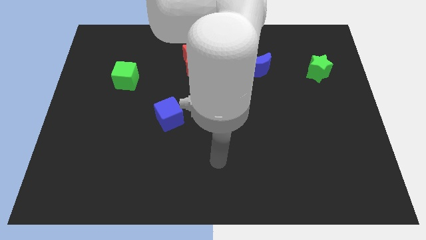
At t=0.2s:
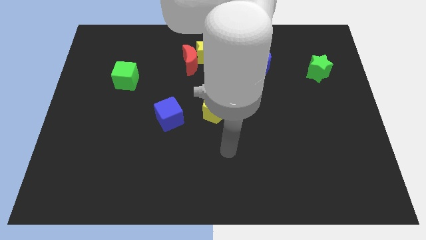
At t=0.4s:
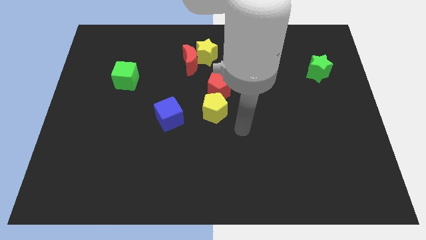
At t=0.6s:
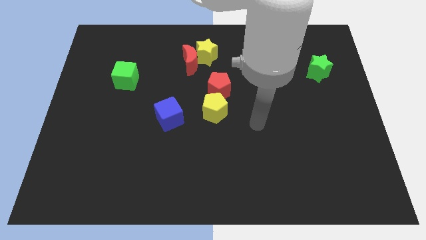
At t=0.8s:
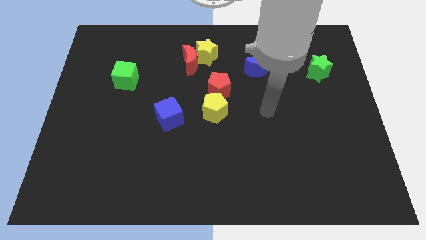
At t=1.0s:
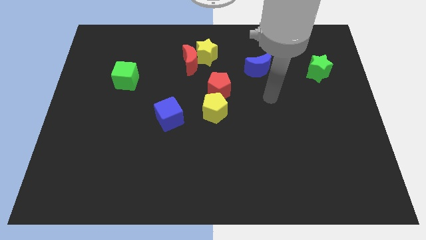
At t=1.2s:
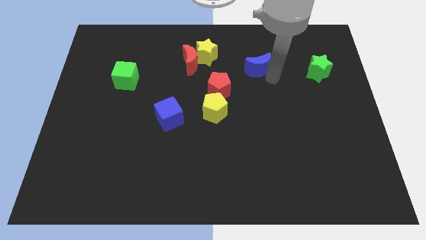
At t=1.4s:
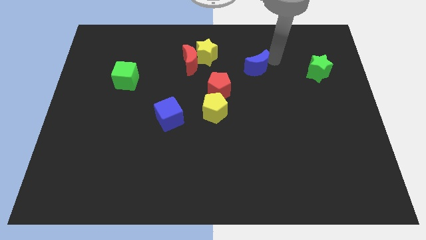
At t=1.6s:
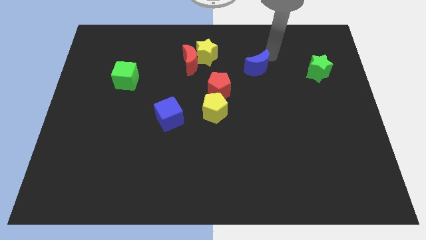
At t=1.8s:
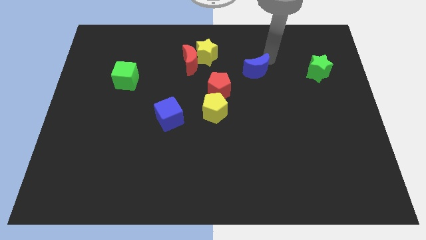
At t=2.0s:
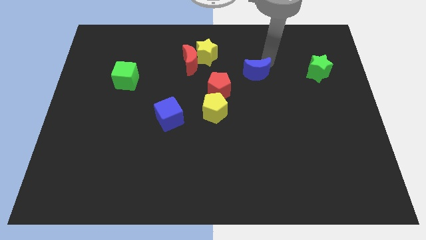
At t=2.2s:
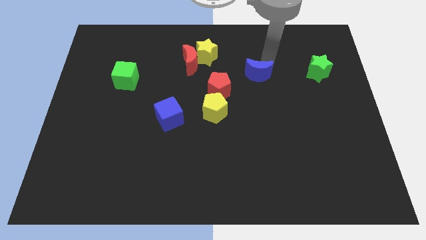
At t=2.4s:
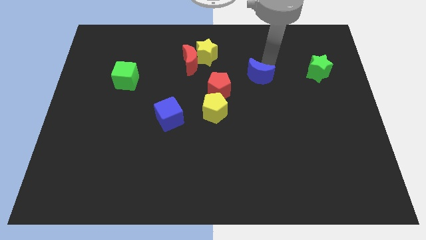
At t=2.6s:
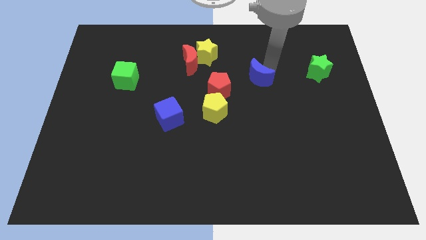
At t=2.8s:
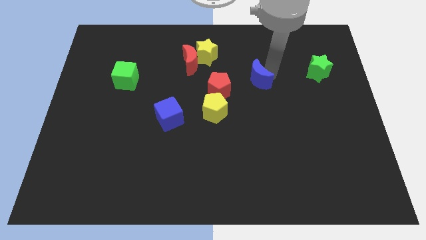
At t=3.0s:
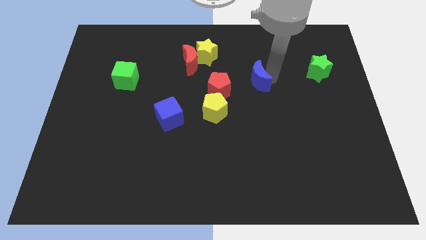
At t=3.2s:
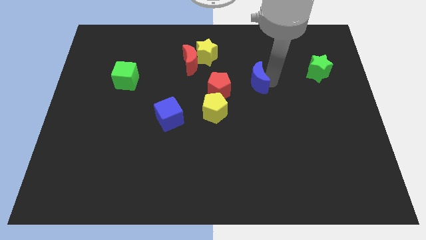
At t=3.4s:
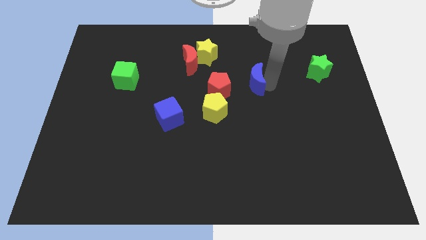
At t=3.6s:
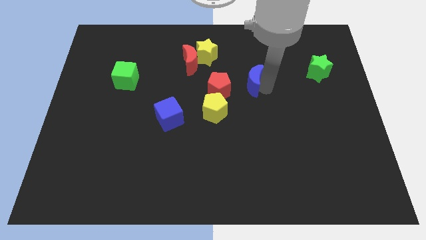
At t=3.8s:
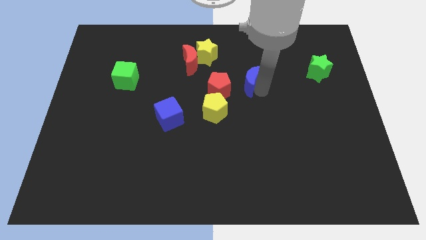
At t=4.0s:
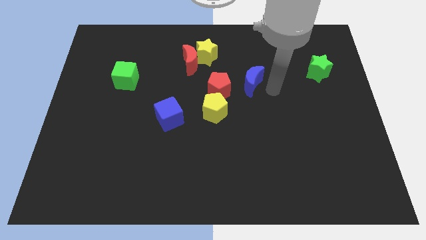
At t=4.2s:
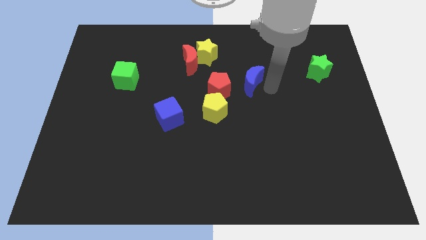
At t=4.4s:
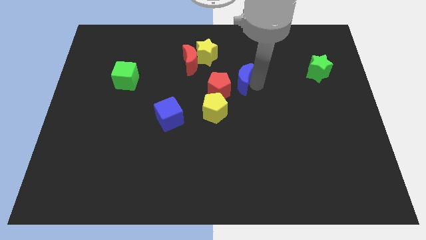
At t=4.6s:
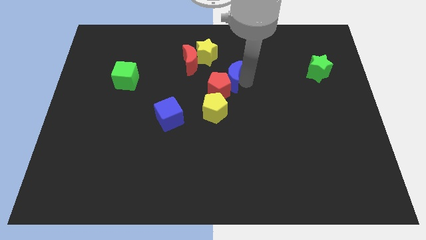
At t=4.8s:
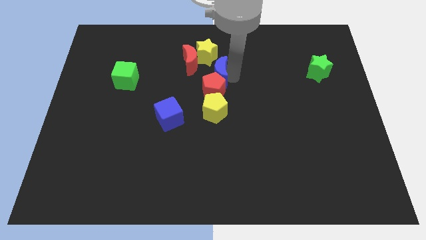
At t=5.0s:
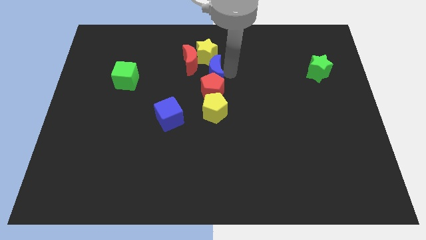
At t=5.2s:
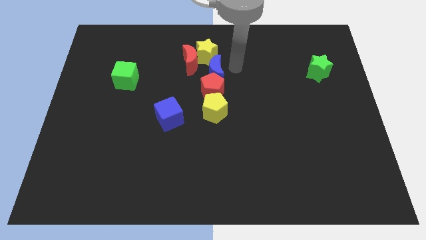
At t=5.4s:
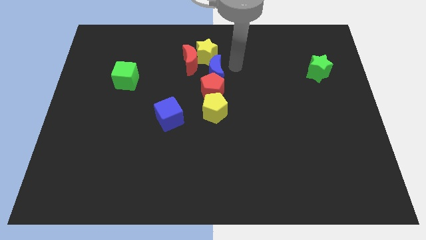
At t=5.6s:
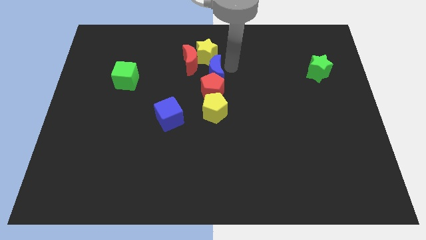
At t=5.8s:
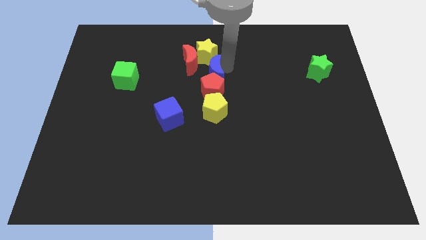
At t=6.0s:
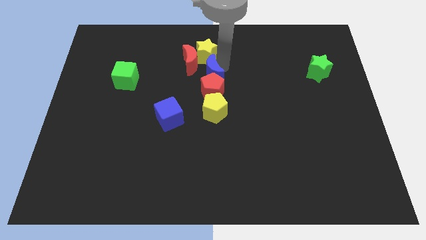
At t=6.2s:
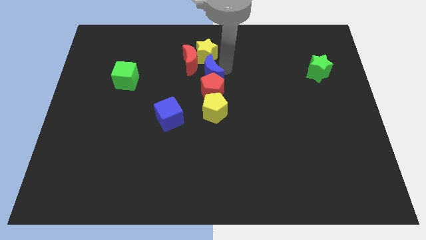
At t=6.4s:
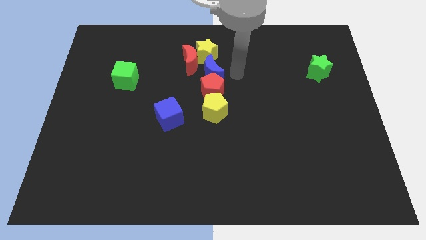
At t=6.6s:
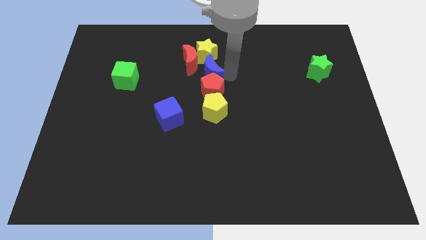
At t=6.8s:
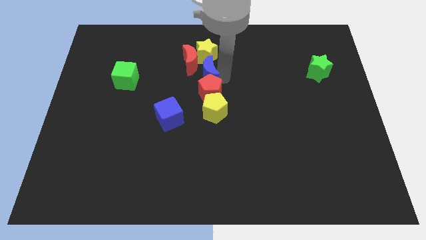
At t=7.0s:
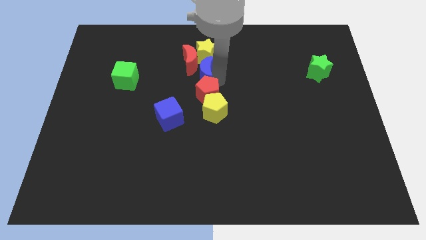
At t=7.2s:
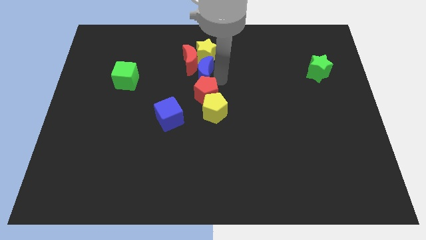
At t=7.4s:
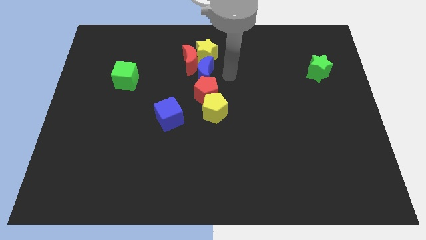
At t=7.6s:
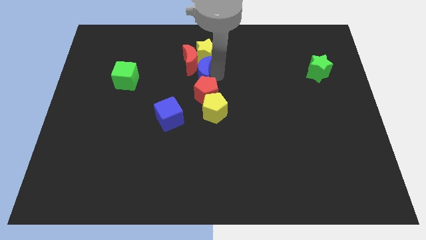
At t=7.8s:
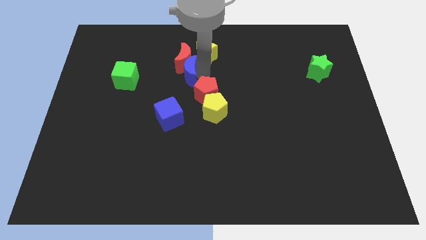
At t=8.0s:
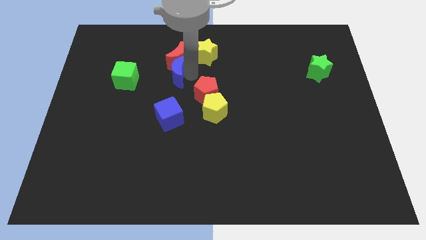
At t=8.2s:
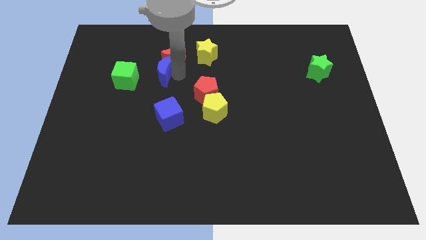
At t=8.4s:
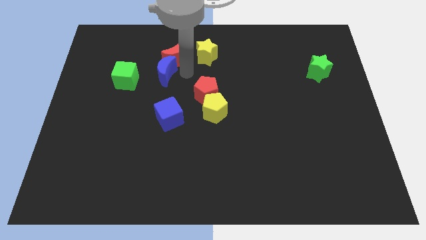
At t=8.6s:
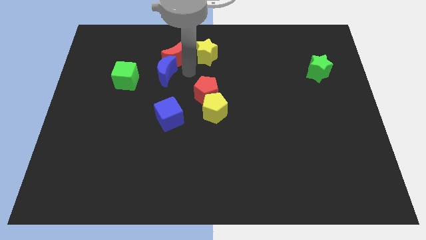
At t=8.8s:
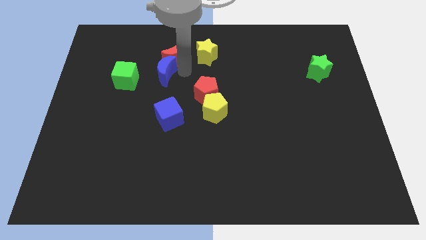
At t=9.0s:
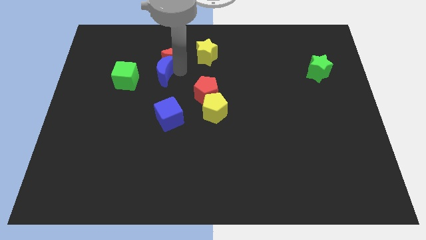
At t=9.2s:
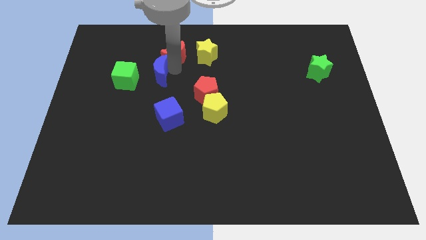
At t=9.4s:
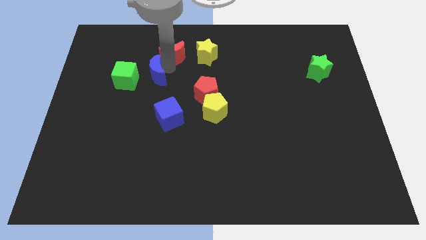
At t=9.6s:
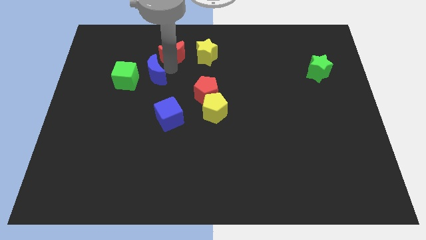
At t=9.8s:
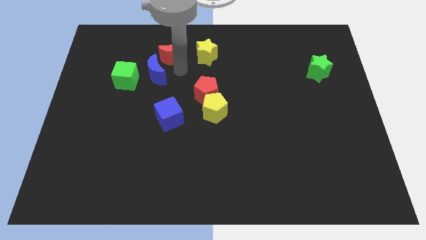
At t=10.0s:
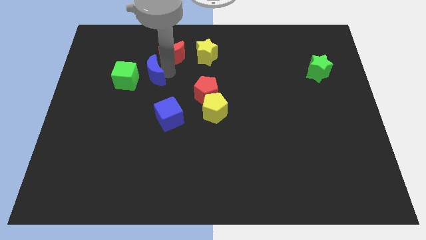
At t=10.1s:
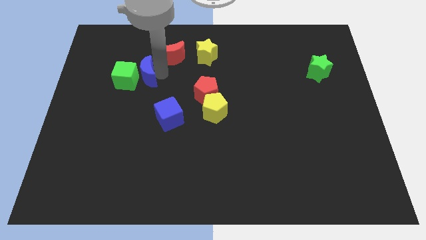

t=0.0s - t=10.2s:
push the blue moon next to the green cube

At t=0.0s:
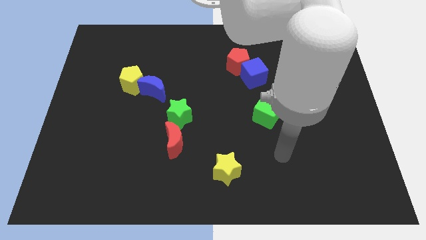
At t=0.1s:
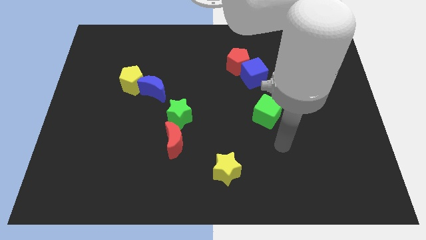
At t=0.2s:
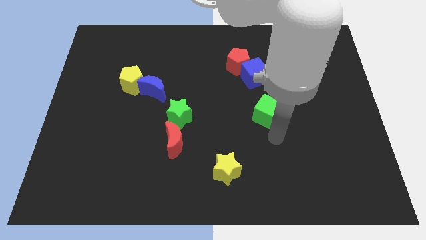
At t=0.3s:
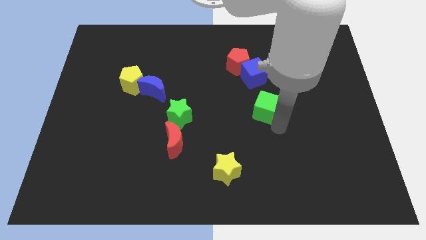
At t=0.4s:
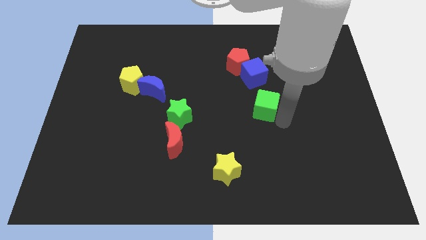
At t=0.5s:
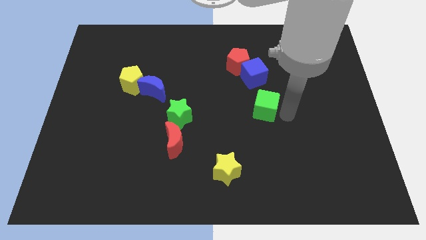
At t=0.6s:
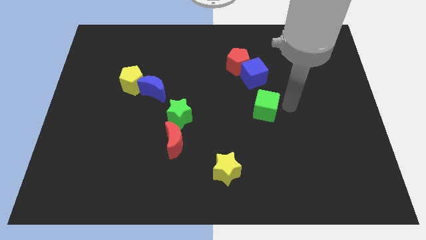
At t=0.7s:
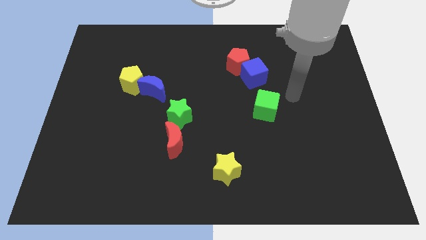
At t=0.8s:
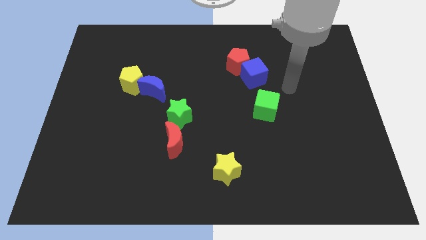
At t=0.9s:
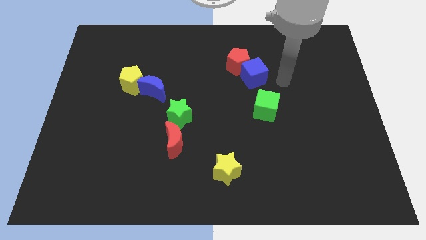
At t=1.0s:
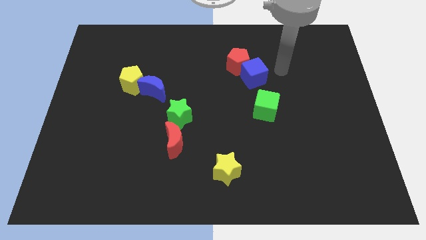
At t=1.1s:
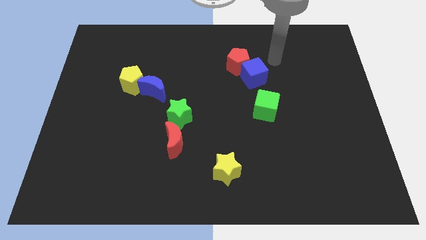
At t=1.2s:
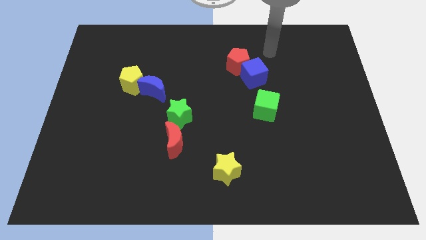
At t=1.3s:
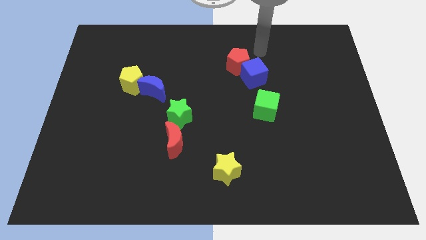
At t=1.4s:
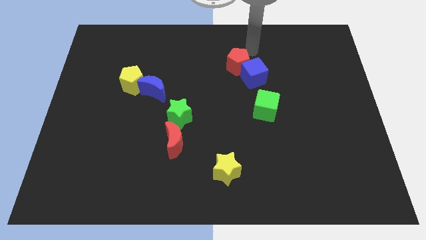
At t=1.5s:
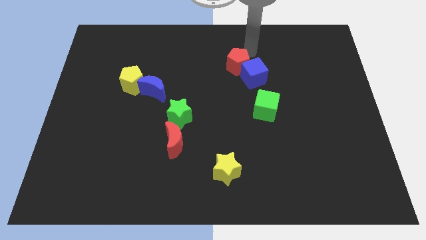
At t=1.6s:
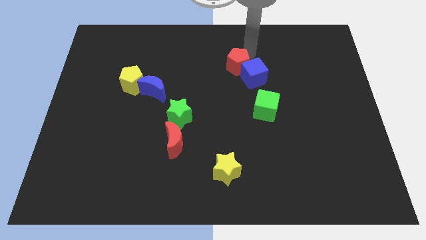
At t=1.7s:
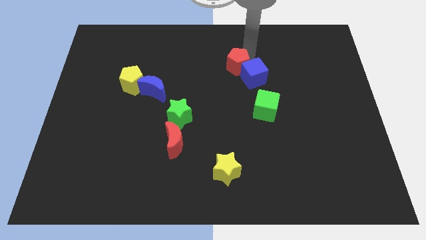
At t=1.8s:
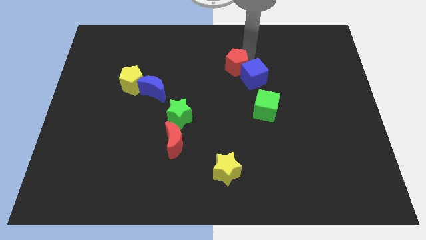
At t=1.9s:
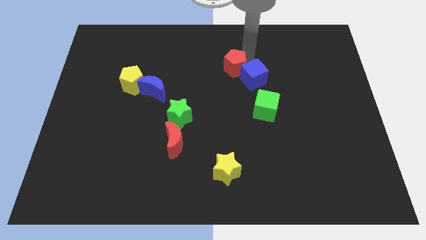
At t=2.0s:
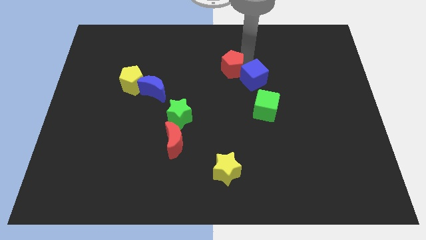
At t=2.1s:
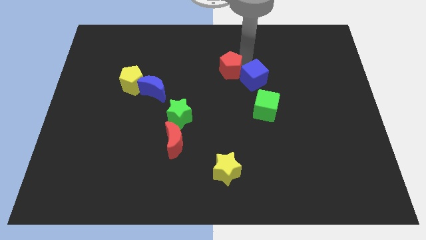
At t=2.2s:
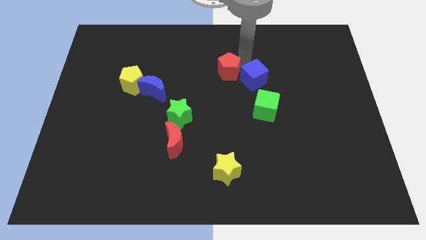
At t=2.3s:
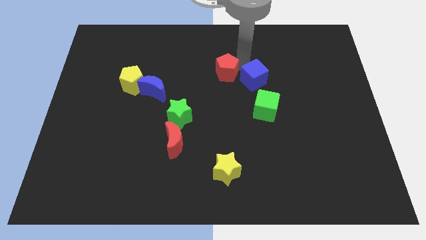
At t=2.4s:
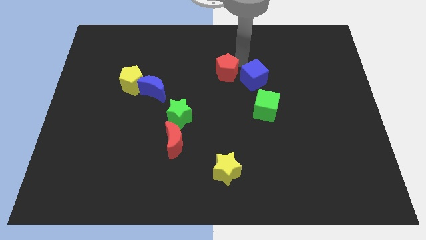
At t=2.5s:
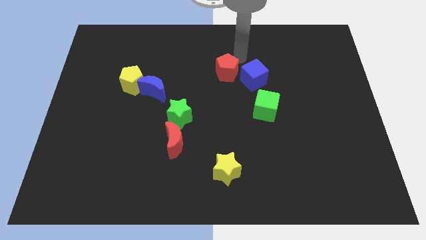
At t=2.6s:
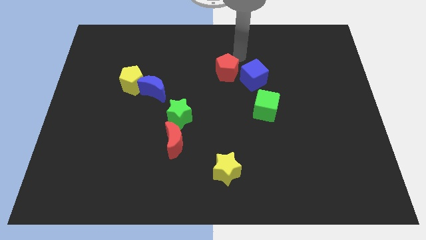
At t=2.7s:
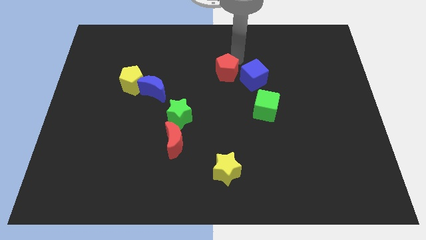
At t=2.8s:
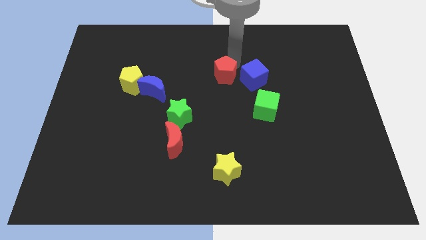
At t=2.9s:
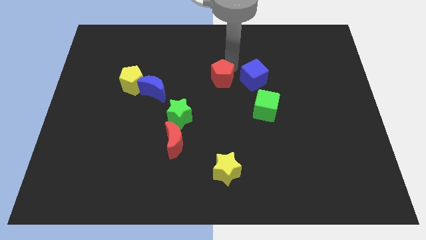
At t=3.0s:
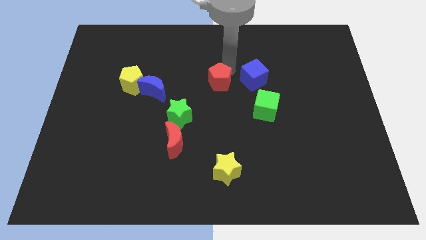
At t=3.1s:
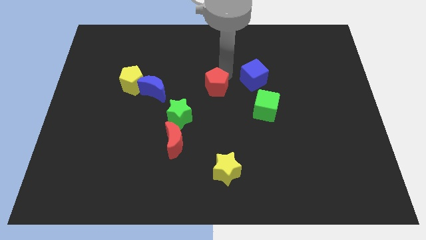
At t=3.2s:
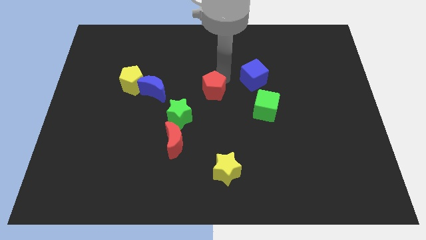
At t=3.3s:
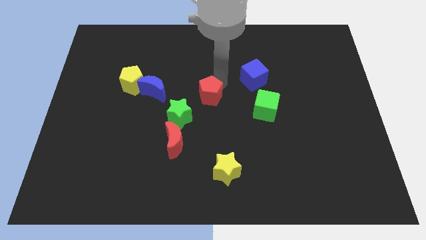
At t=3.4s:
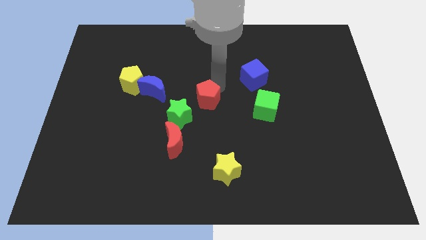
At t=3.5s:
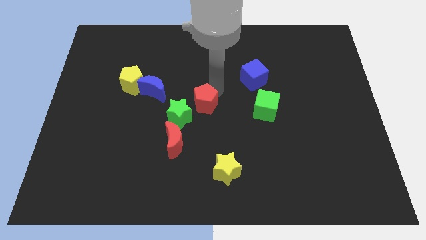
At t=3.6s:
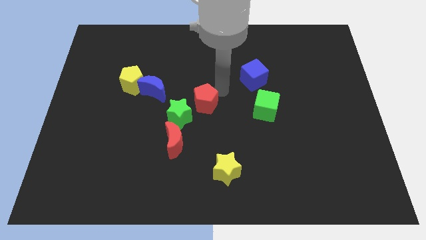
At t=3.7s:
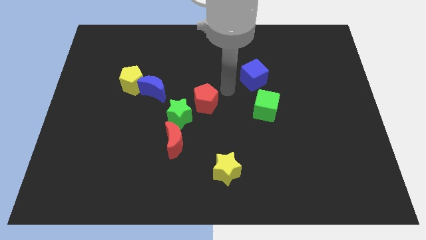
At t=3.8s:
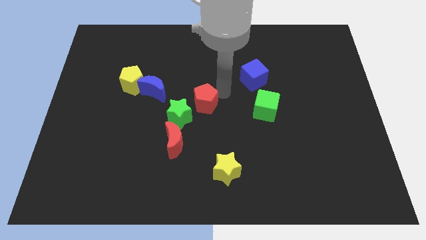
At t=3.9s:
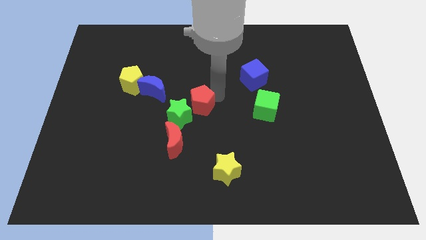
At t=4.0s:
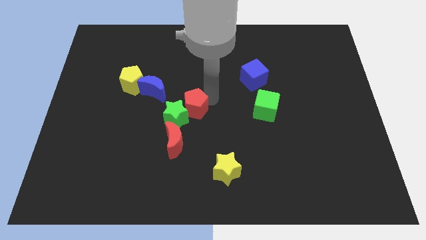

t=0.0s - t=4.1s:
slide the red pentagon next to the green star
